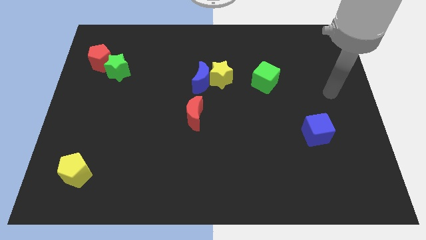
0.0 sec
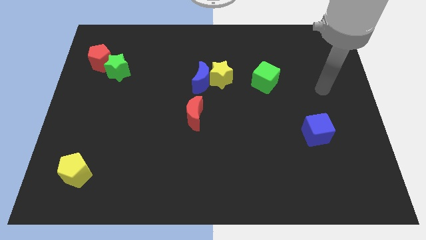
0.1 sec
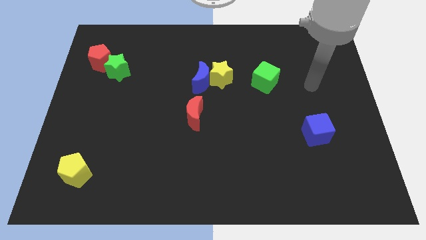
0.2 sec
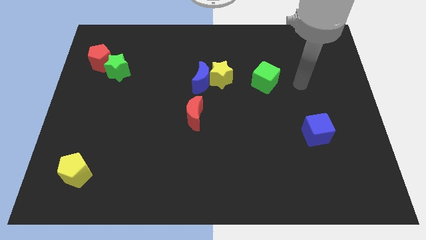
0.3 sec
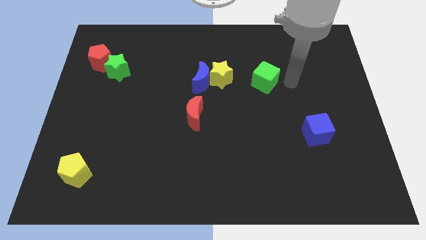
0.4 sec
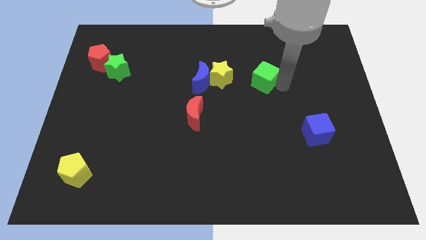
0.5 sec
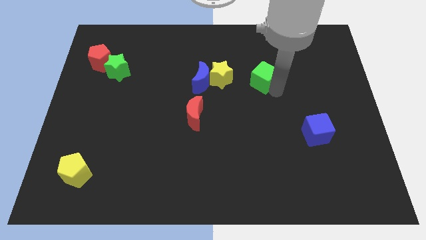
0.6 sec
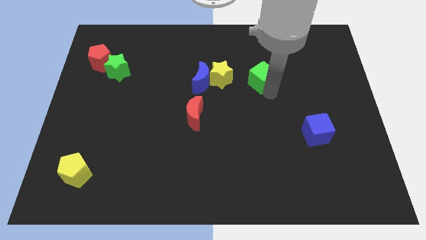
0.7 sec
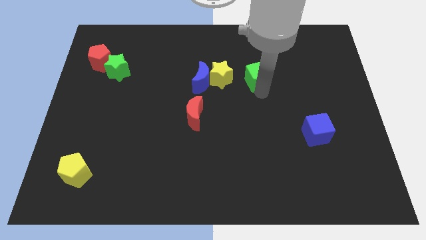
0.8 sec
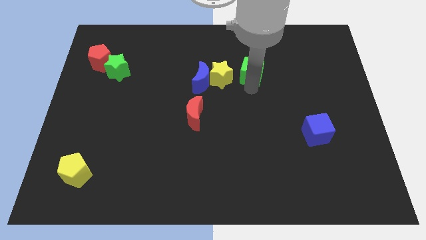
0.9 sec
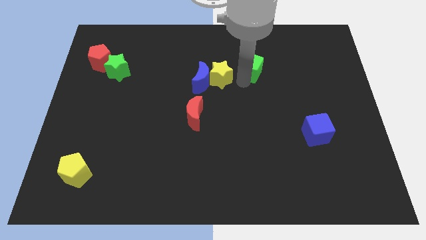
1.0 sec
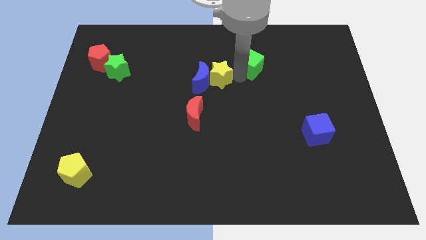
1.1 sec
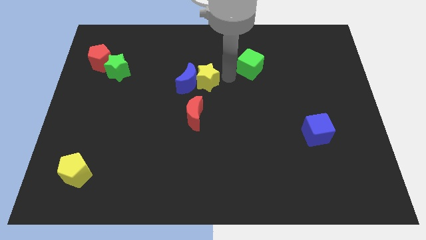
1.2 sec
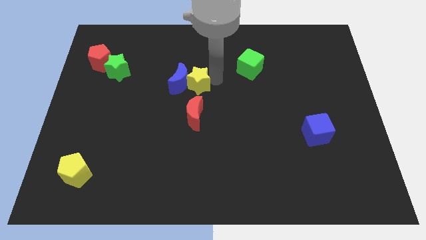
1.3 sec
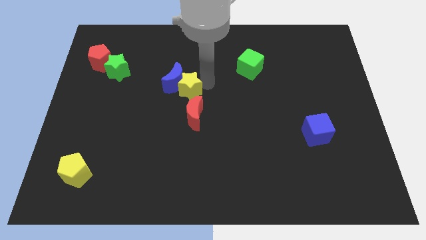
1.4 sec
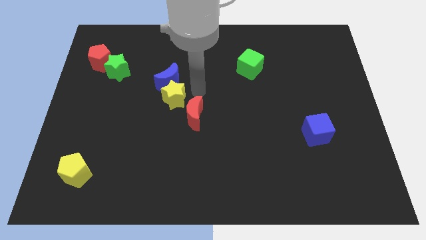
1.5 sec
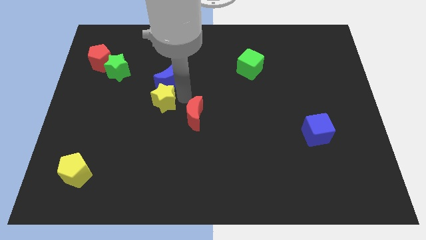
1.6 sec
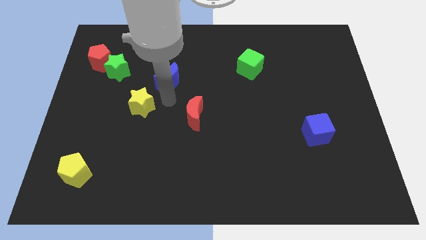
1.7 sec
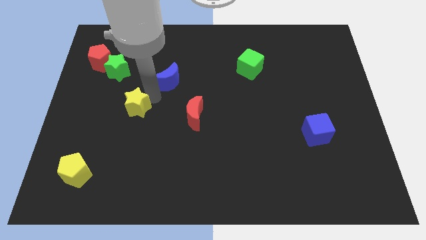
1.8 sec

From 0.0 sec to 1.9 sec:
move the blue moon away from the yellow star

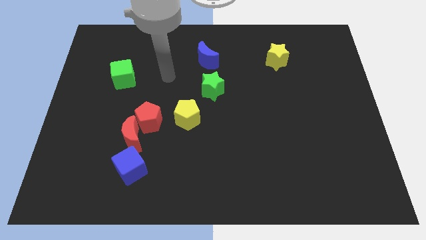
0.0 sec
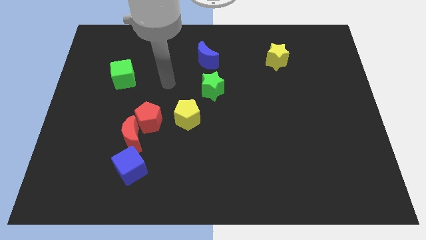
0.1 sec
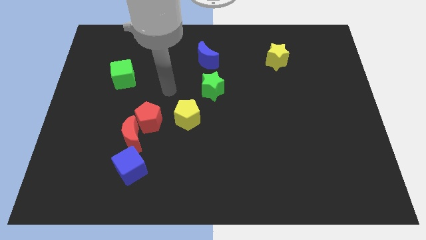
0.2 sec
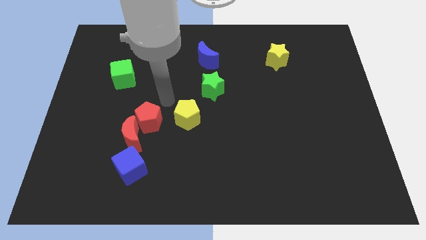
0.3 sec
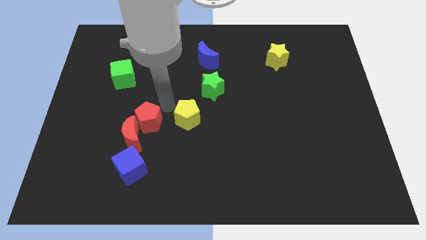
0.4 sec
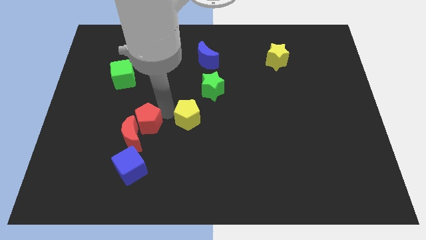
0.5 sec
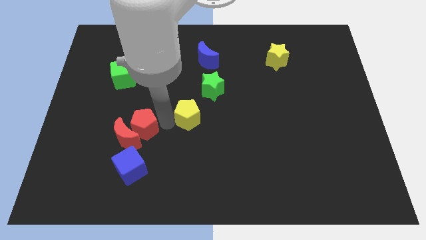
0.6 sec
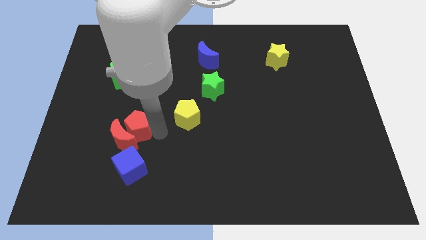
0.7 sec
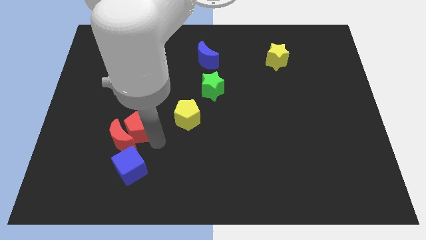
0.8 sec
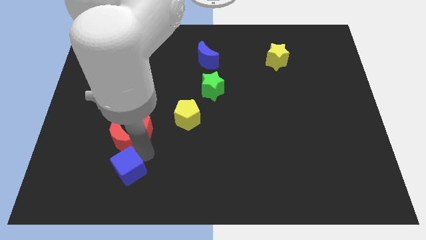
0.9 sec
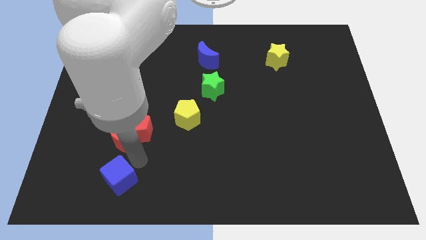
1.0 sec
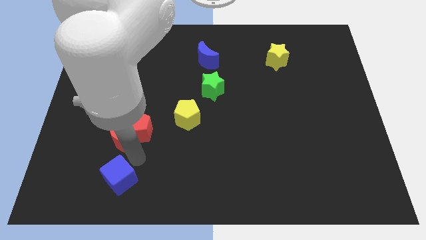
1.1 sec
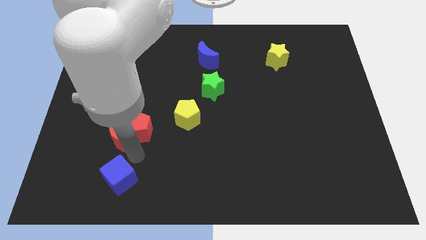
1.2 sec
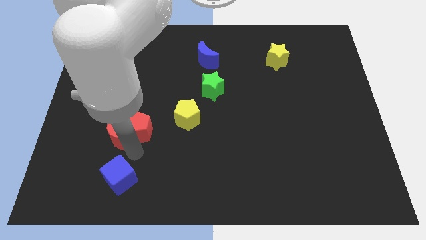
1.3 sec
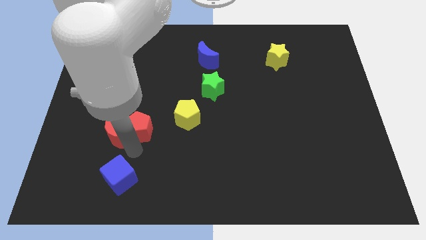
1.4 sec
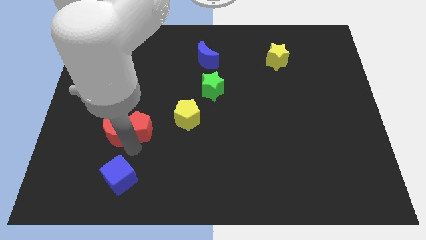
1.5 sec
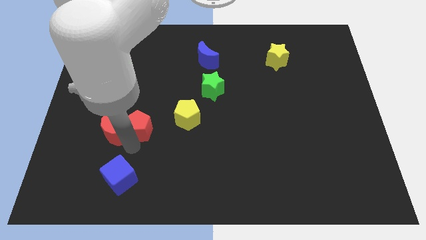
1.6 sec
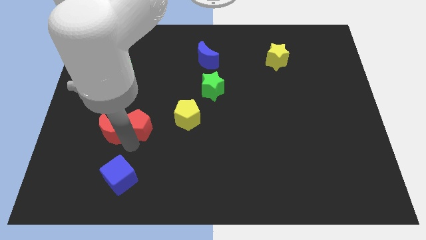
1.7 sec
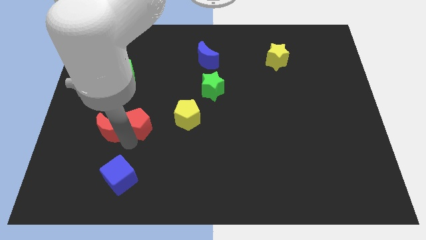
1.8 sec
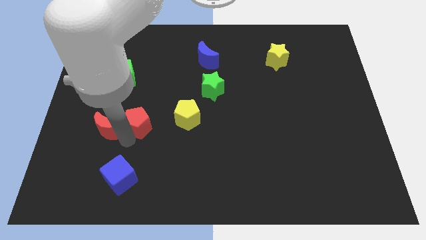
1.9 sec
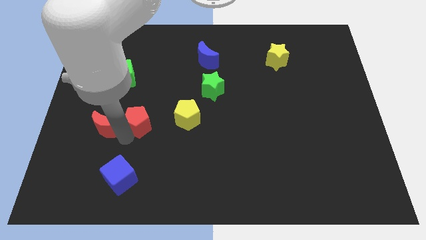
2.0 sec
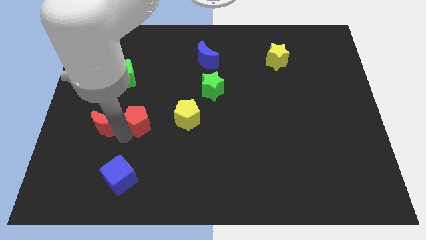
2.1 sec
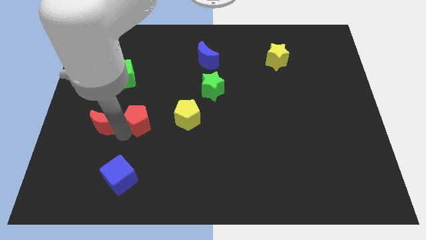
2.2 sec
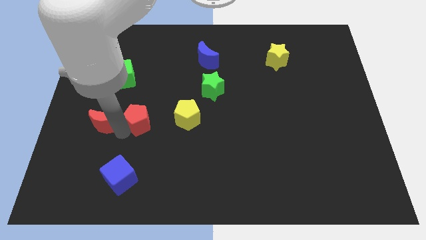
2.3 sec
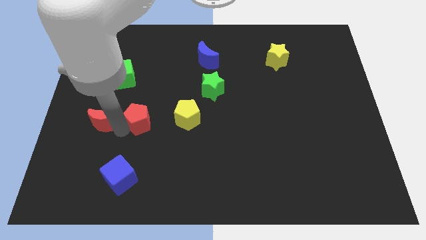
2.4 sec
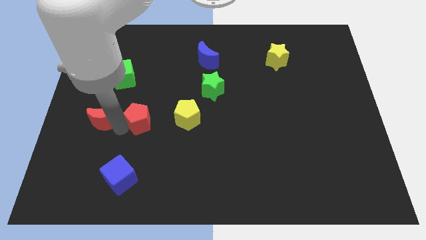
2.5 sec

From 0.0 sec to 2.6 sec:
separate the red moon from the red pentagon and blue cube

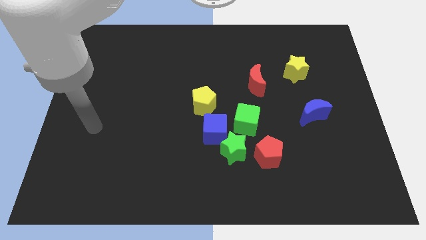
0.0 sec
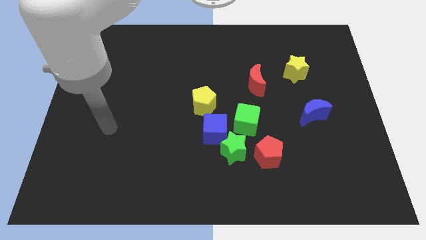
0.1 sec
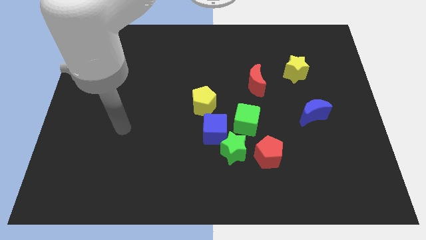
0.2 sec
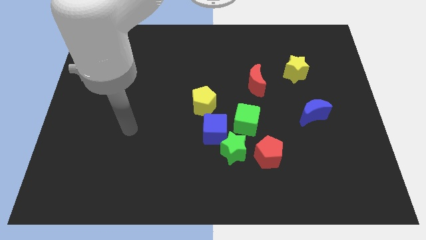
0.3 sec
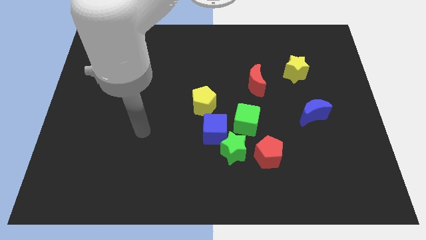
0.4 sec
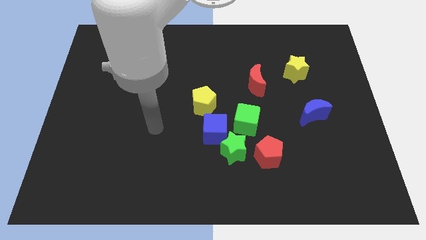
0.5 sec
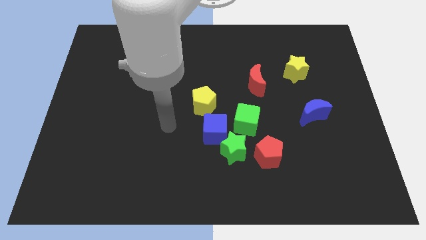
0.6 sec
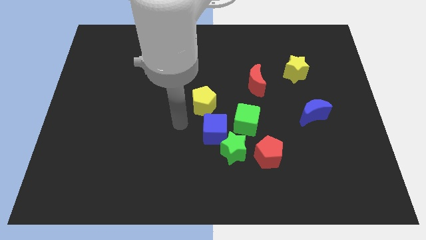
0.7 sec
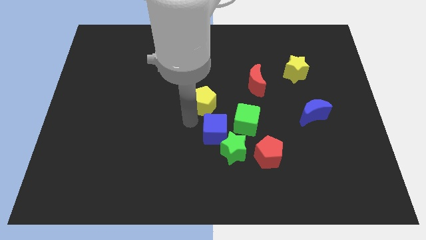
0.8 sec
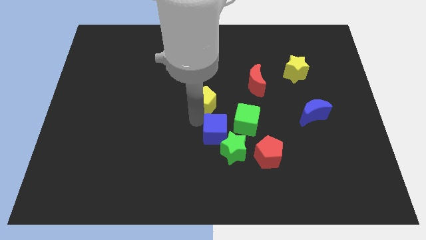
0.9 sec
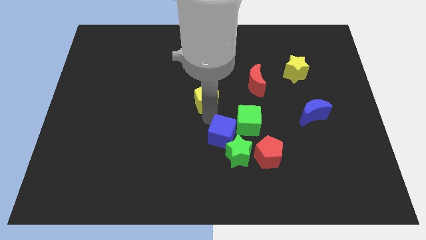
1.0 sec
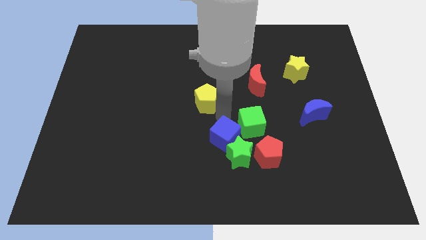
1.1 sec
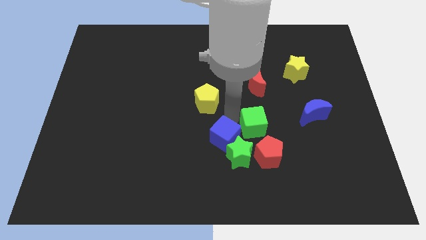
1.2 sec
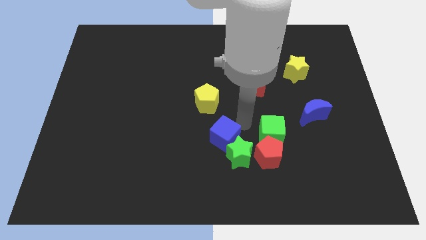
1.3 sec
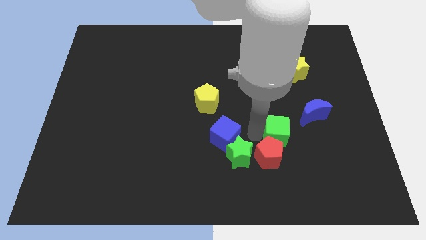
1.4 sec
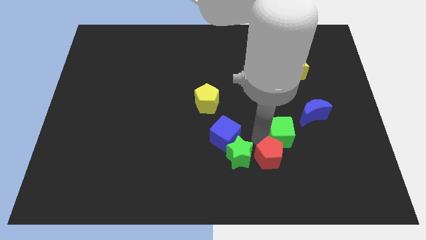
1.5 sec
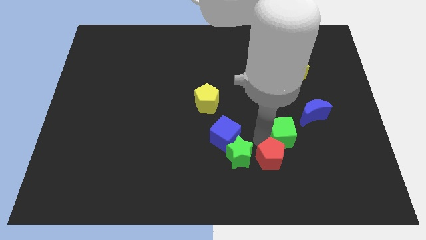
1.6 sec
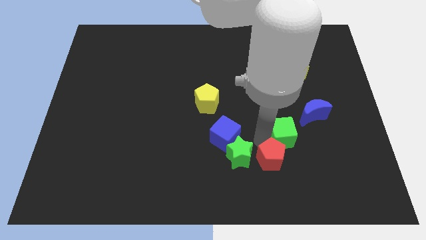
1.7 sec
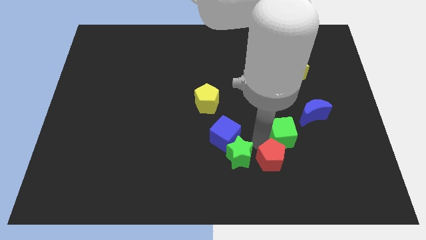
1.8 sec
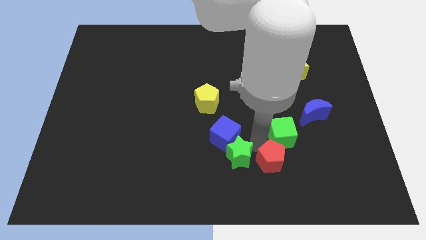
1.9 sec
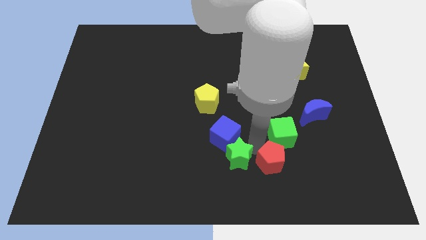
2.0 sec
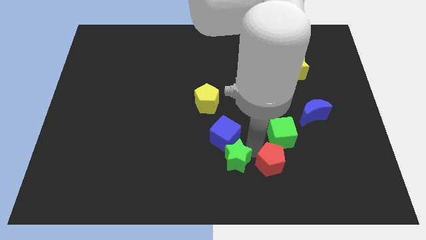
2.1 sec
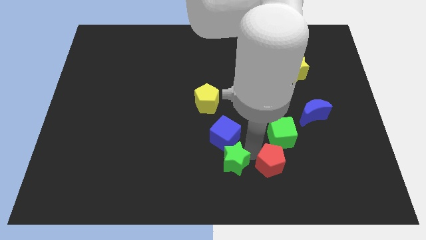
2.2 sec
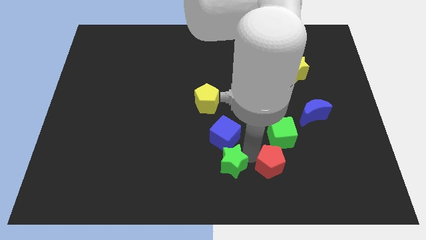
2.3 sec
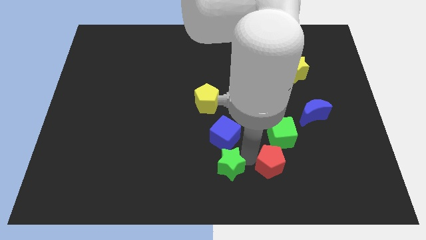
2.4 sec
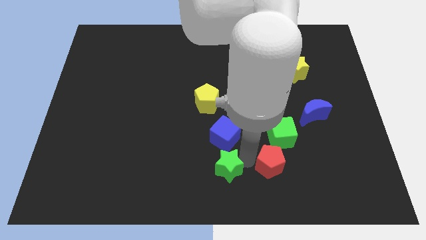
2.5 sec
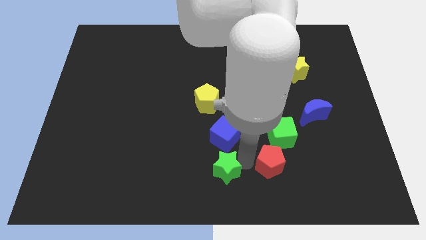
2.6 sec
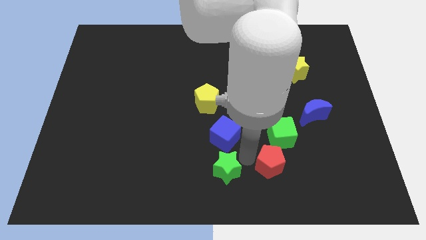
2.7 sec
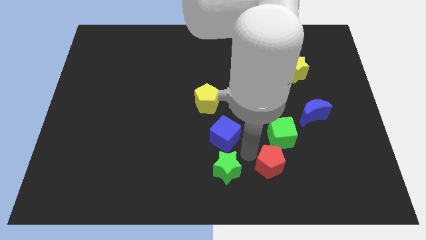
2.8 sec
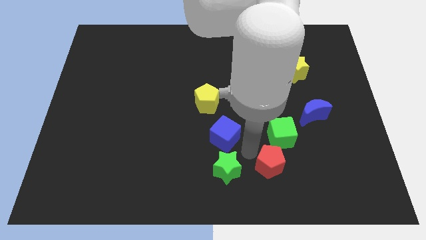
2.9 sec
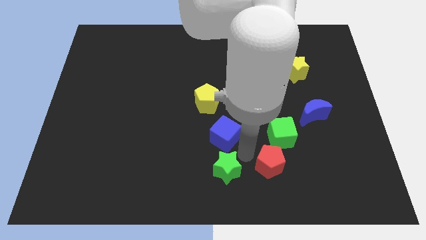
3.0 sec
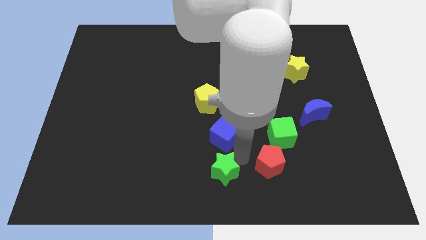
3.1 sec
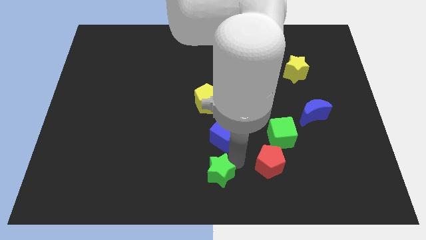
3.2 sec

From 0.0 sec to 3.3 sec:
separate the green star from the clump

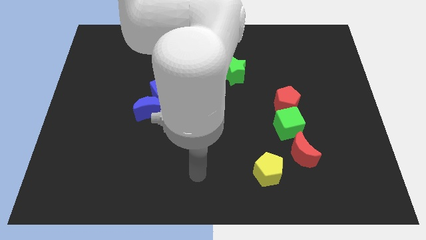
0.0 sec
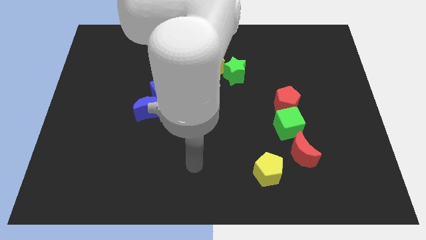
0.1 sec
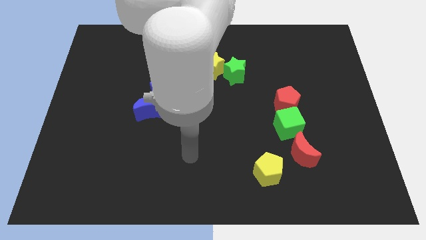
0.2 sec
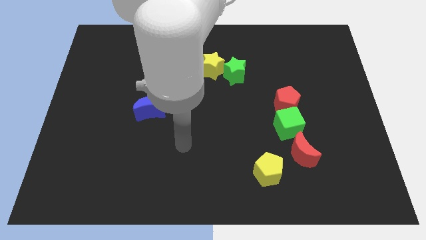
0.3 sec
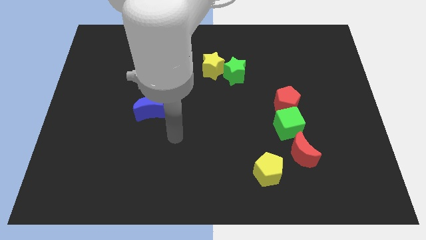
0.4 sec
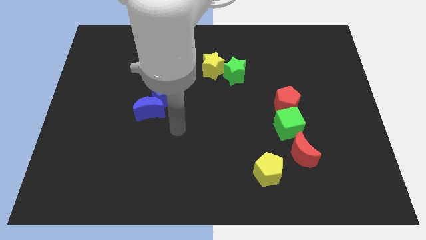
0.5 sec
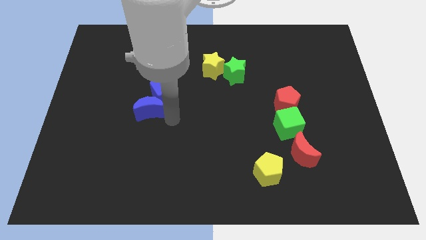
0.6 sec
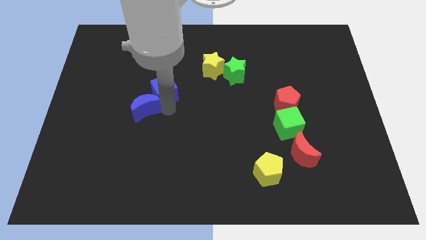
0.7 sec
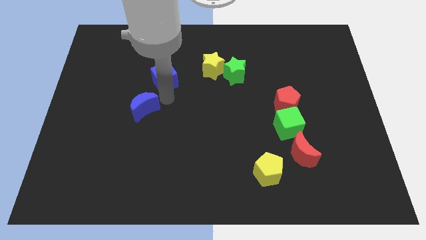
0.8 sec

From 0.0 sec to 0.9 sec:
move the blue moon away from the blue cube
